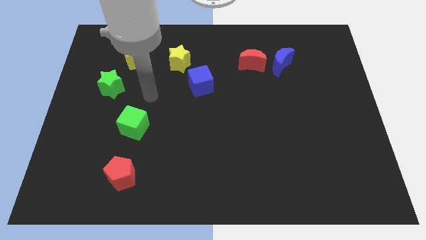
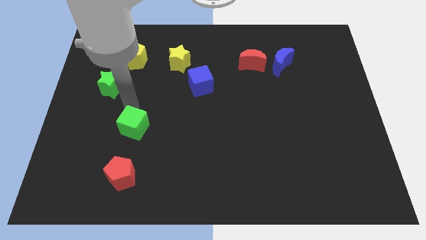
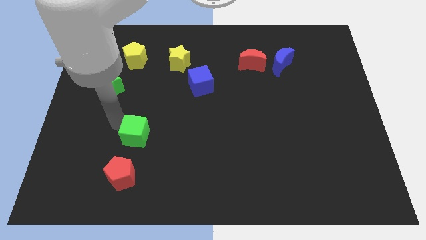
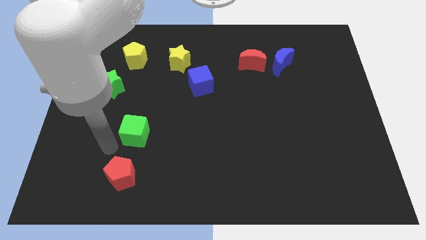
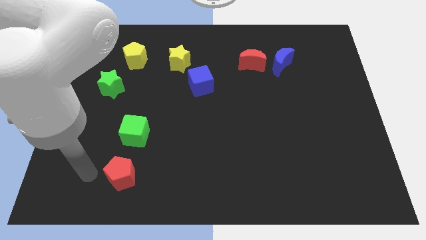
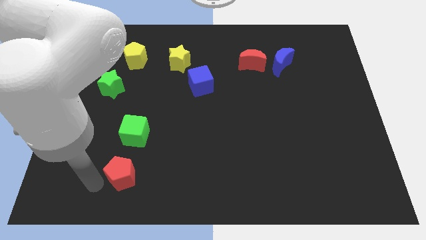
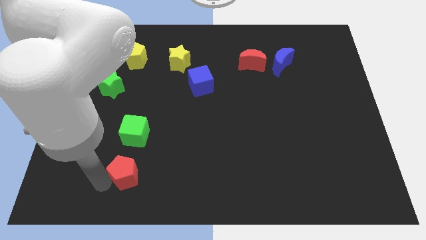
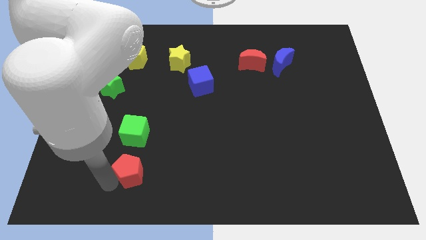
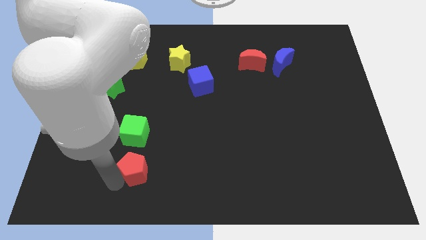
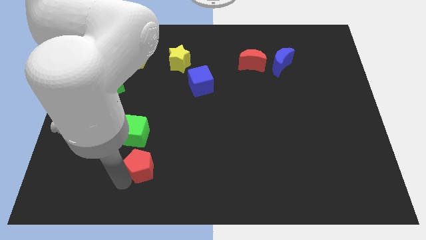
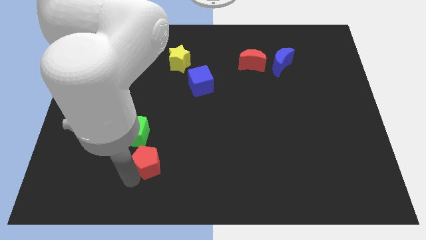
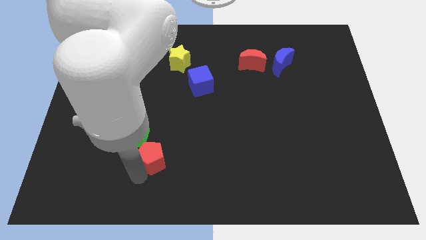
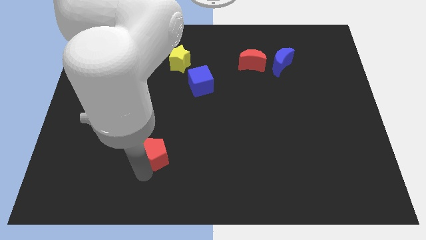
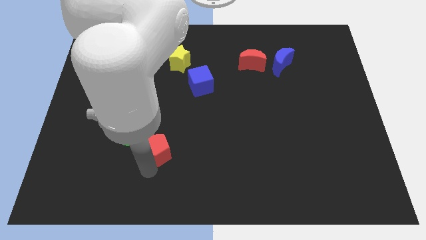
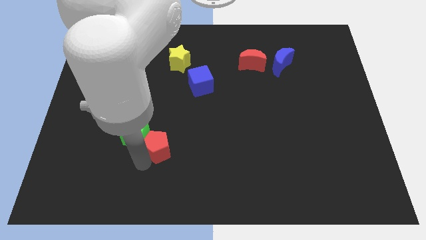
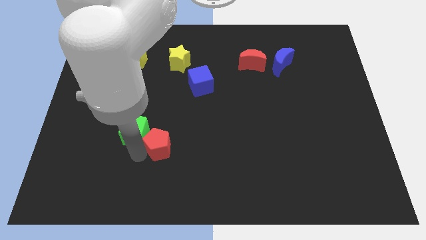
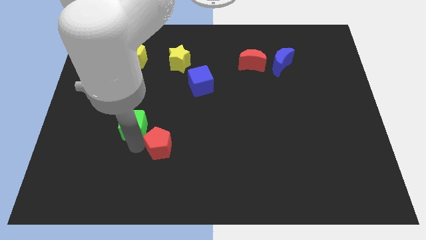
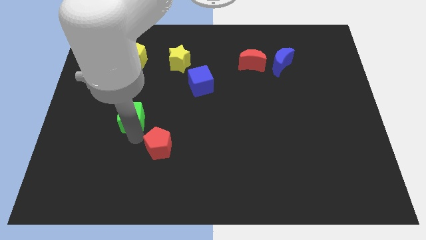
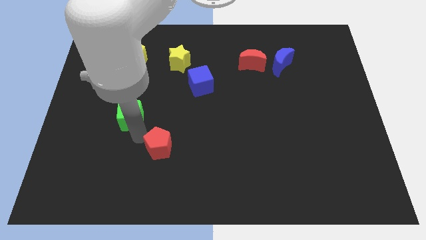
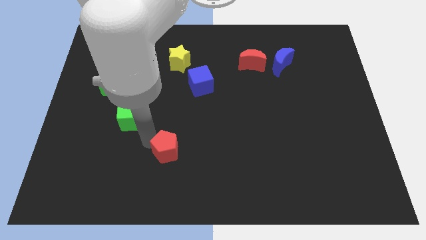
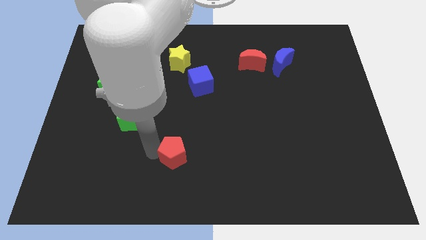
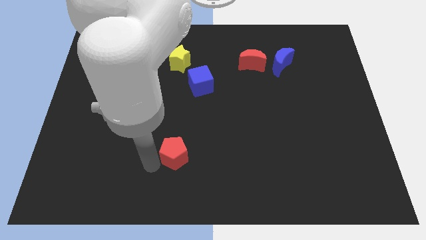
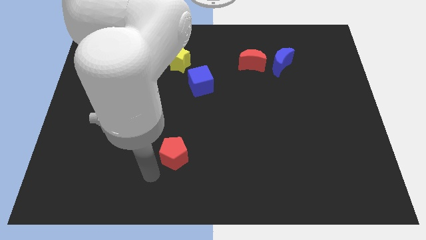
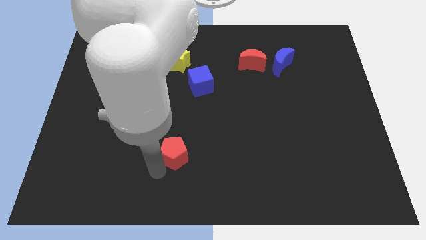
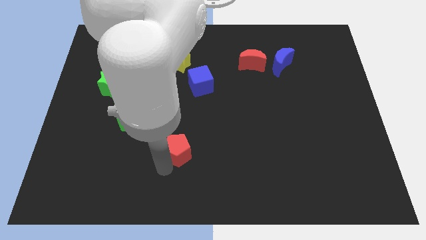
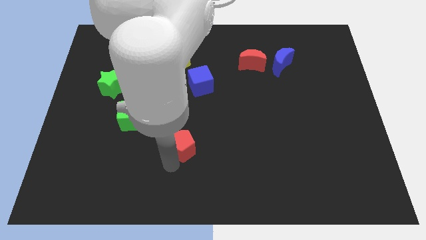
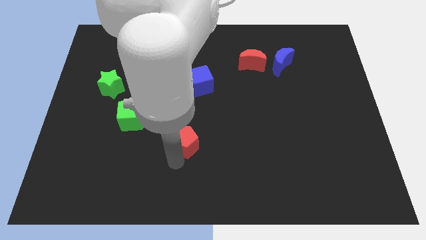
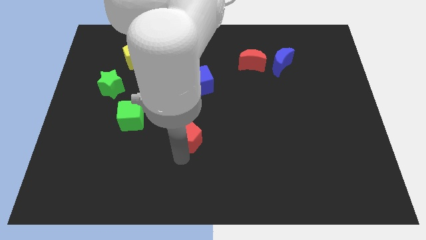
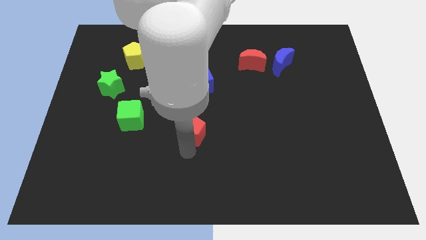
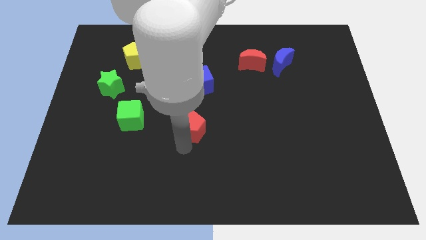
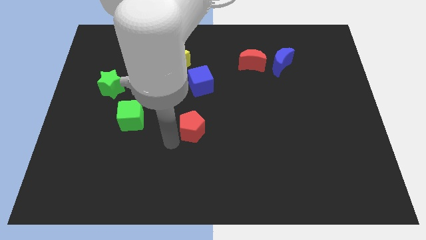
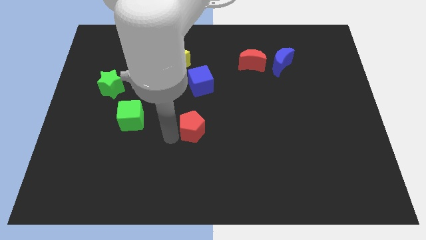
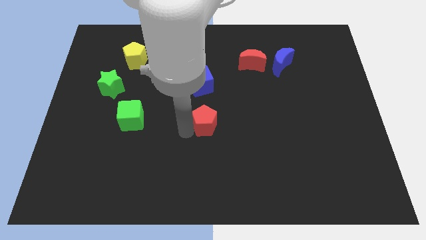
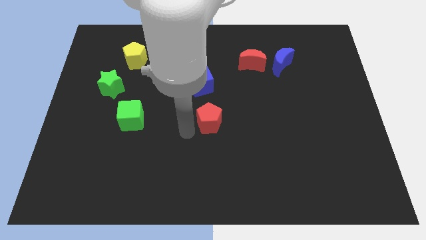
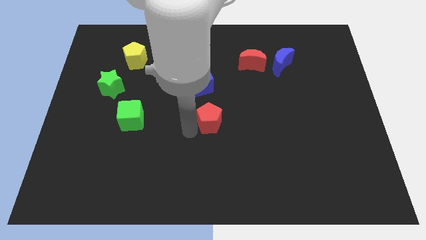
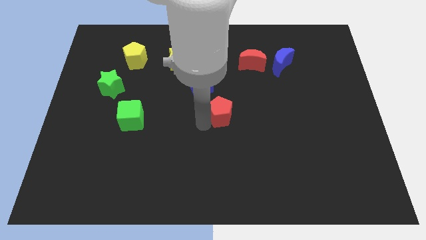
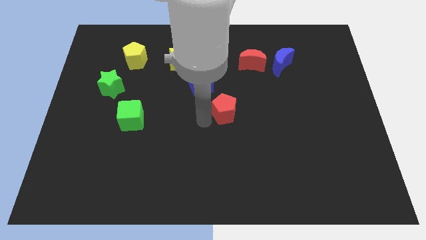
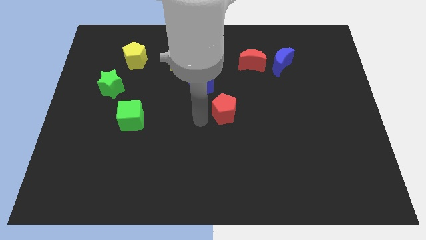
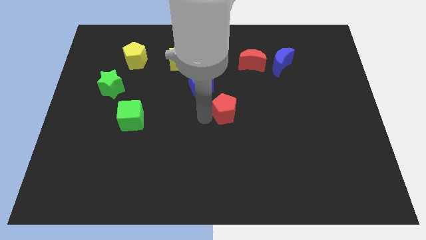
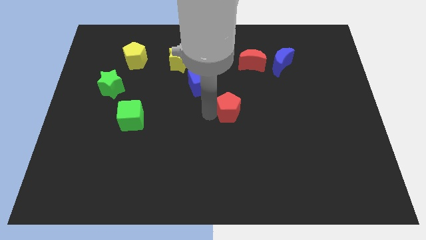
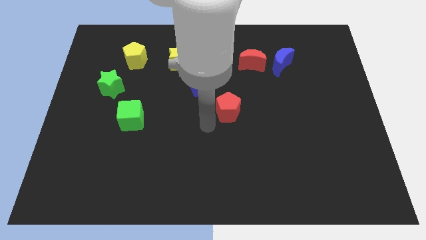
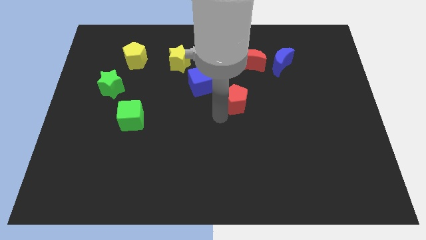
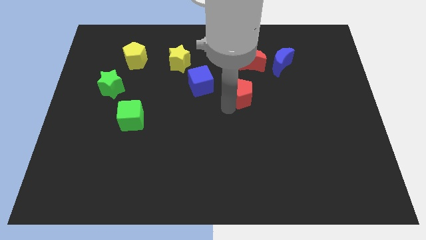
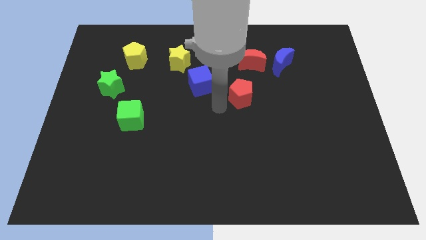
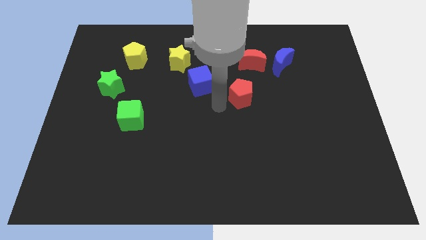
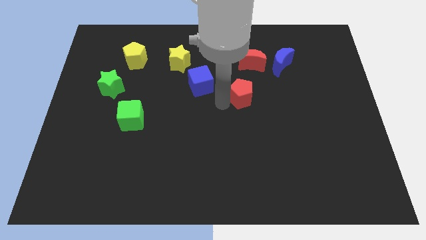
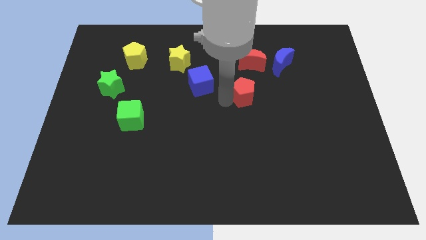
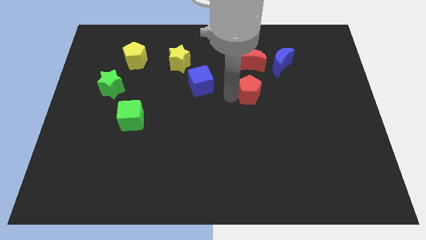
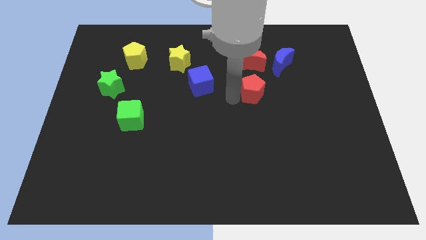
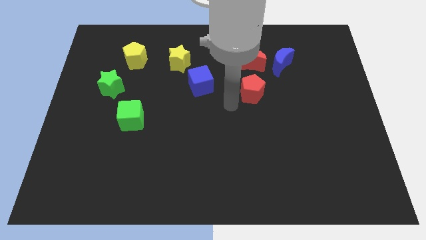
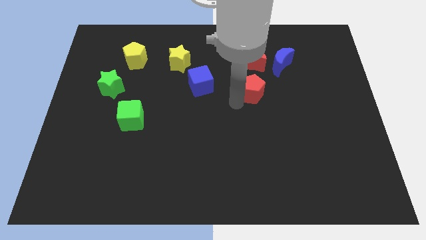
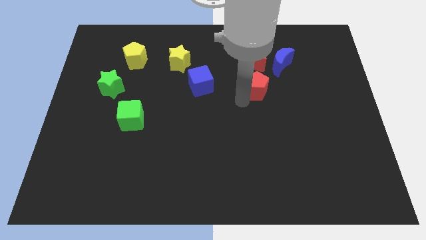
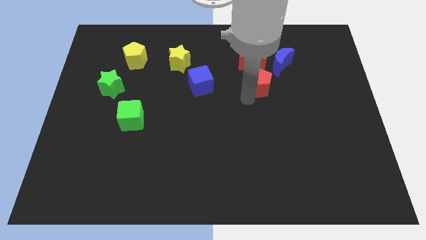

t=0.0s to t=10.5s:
push the red pentagon to the bottom right of the red moon

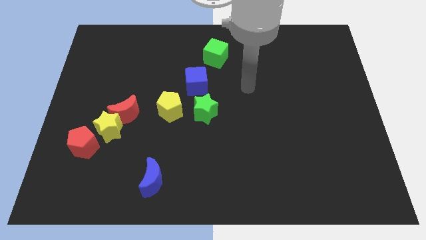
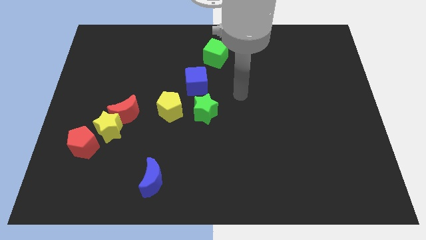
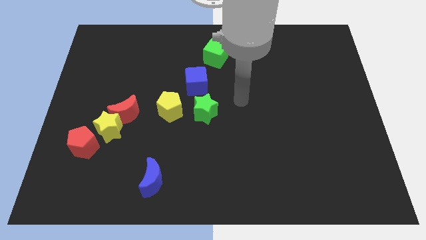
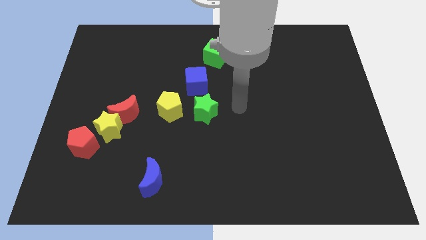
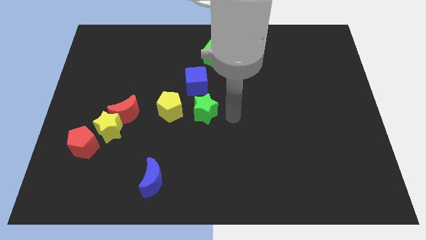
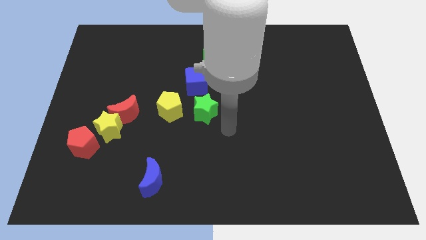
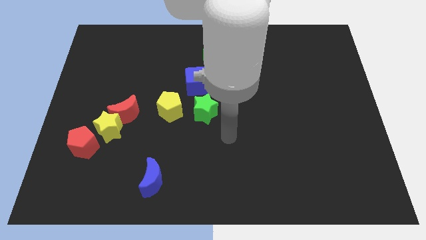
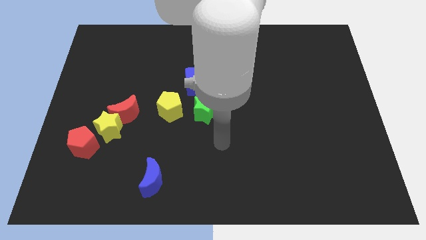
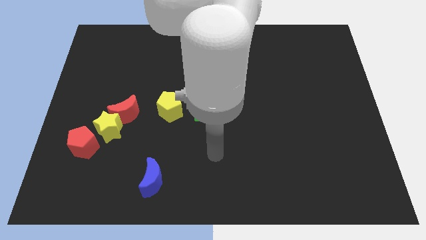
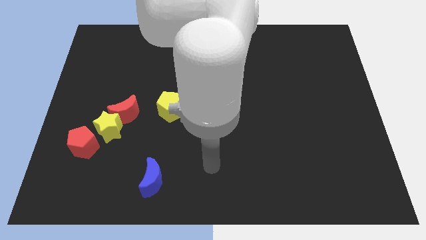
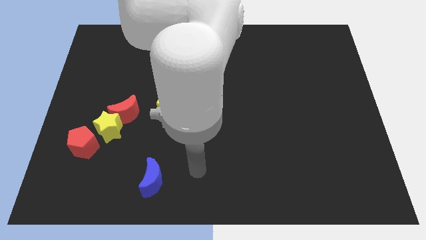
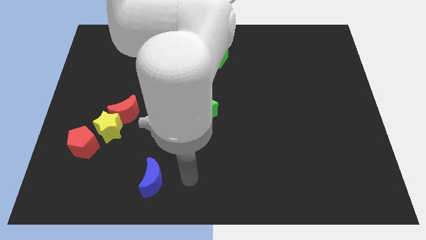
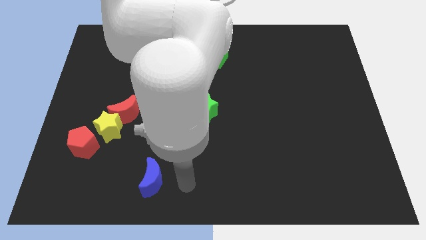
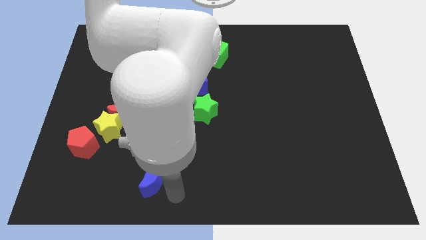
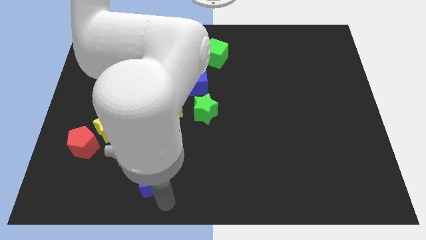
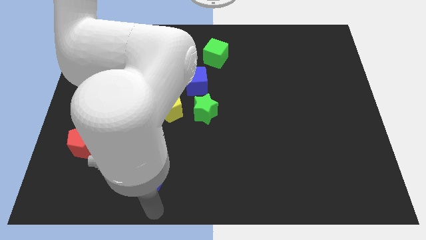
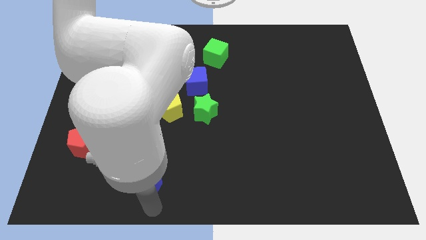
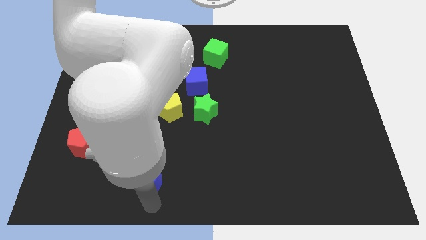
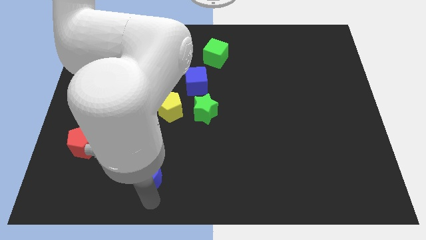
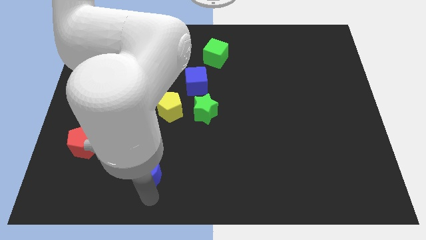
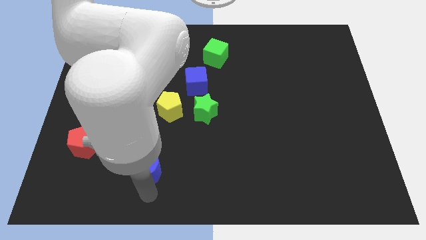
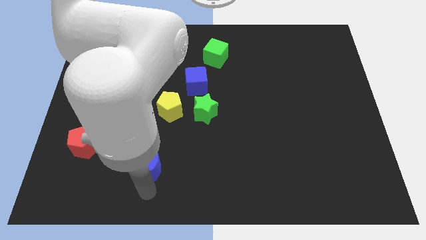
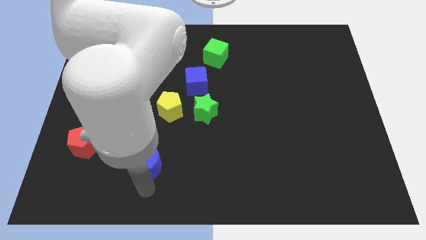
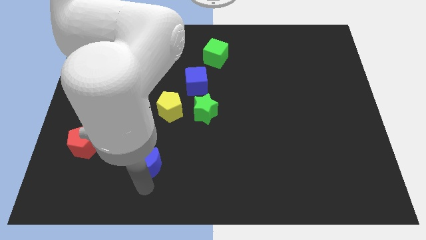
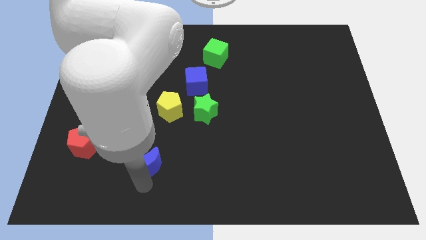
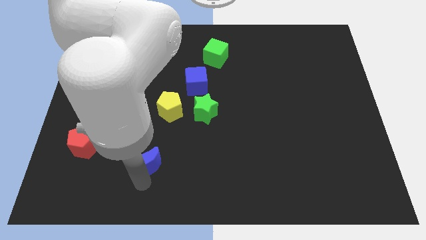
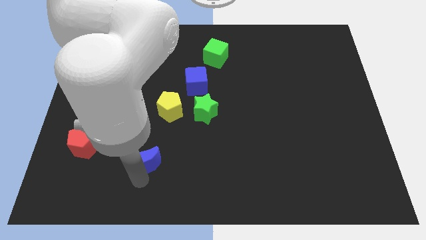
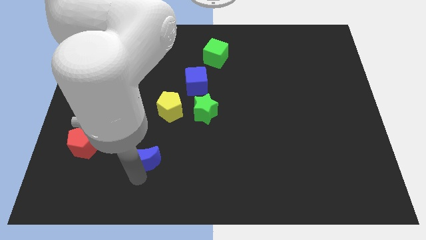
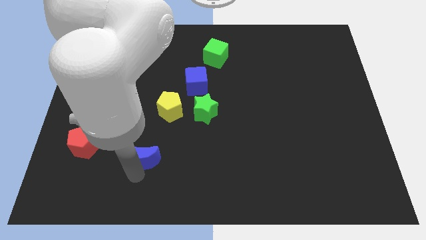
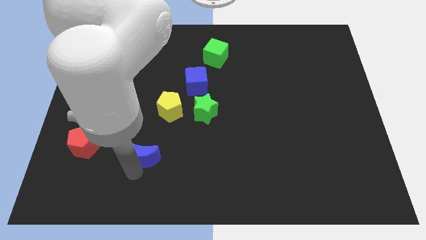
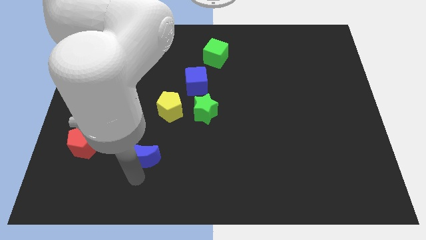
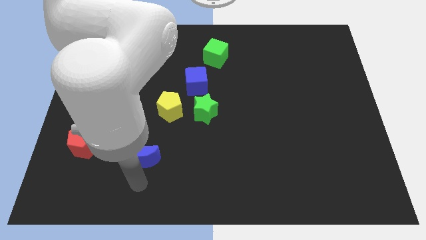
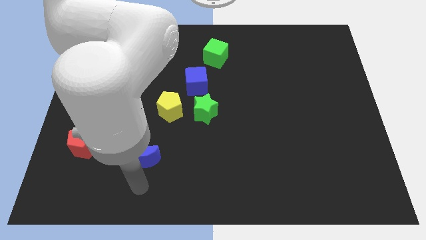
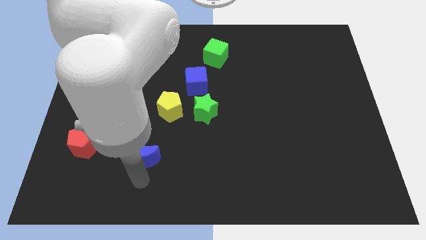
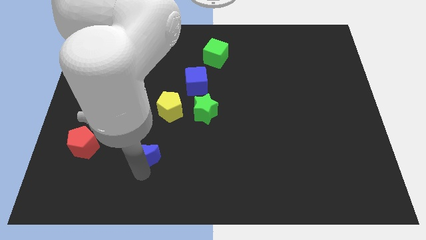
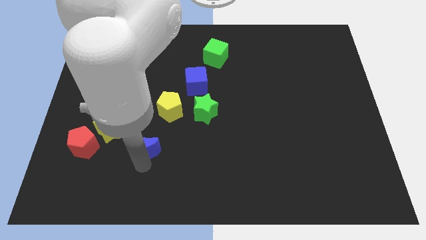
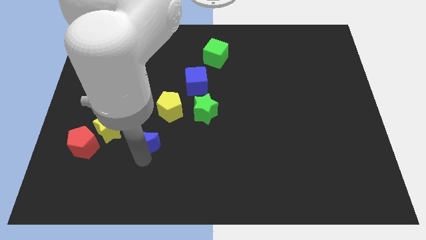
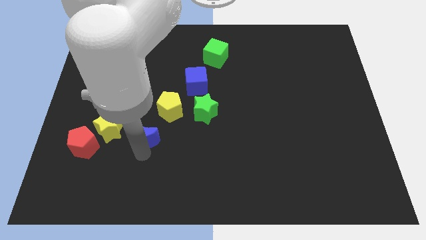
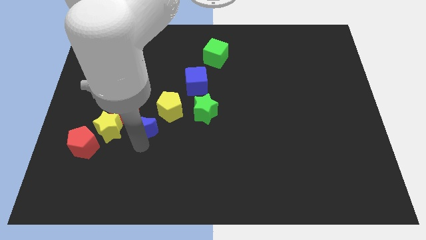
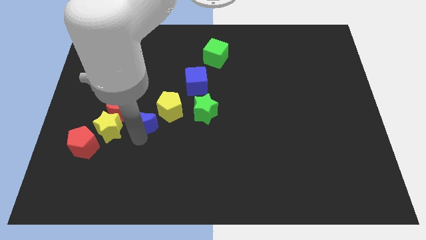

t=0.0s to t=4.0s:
slide the blue moon to the left of the green star
